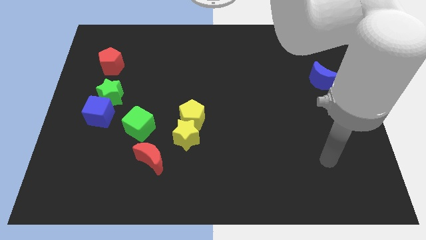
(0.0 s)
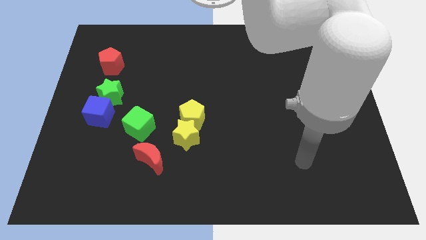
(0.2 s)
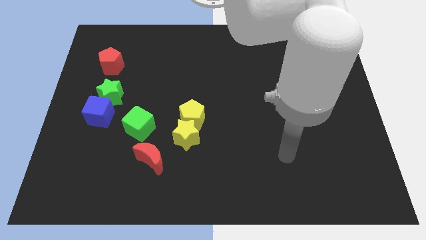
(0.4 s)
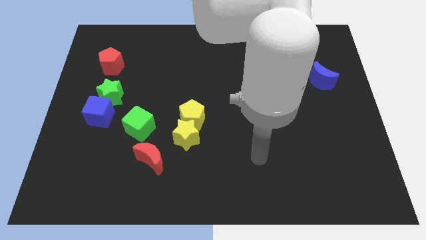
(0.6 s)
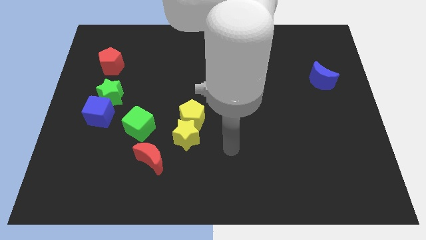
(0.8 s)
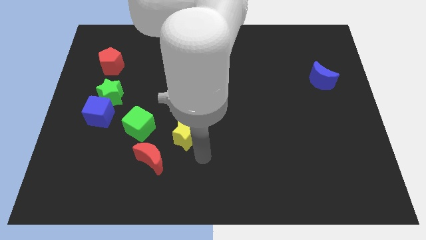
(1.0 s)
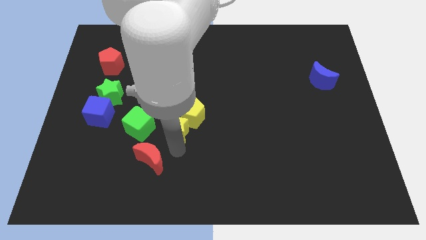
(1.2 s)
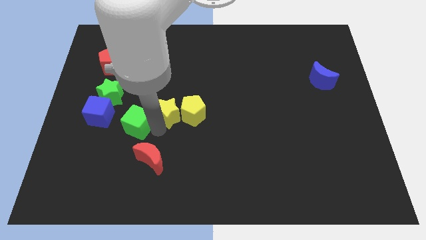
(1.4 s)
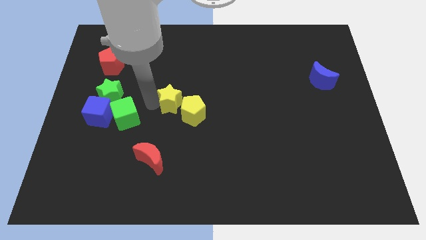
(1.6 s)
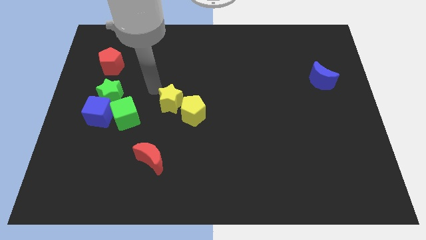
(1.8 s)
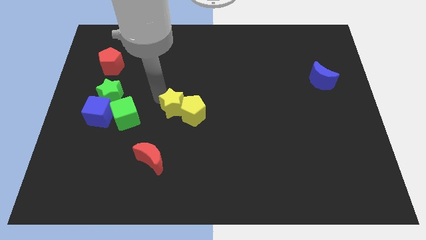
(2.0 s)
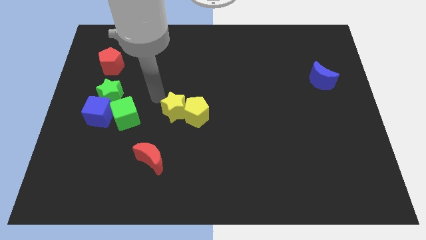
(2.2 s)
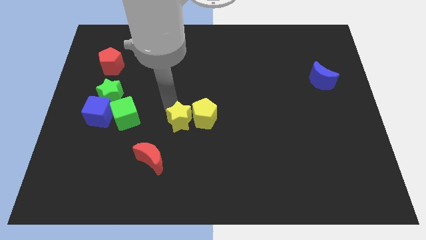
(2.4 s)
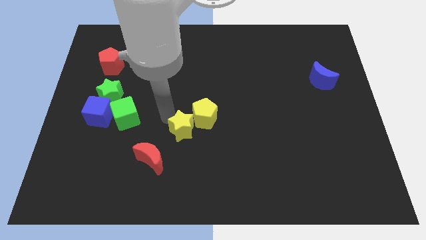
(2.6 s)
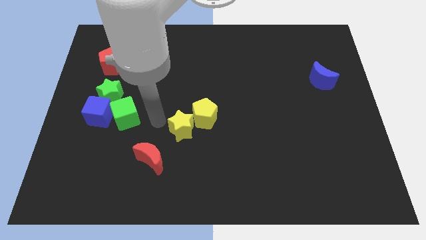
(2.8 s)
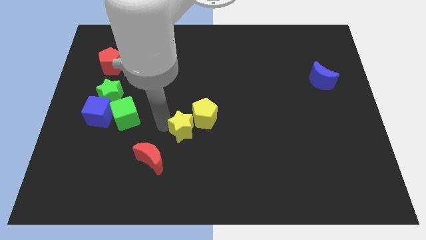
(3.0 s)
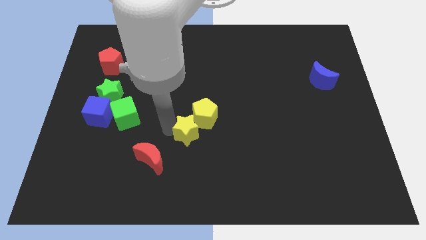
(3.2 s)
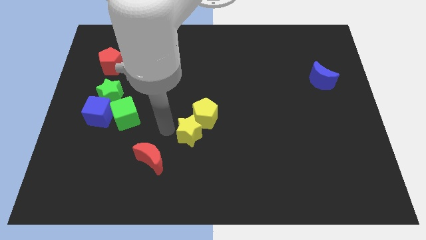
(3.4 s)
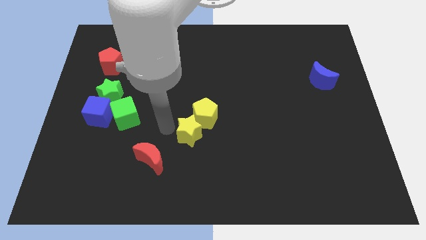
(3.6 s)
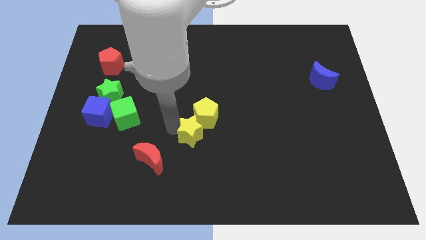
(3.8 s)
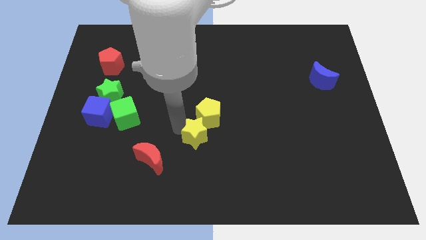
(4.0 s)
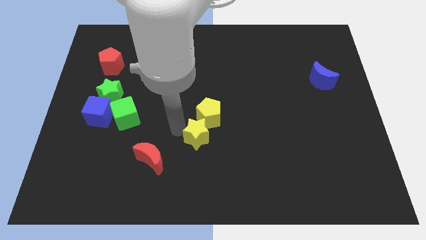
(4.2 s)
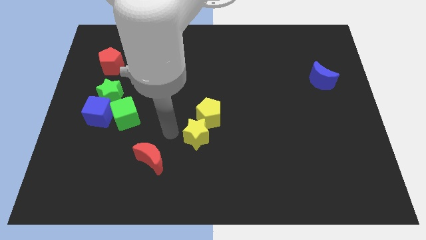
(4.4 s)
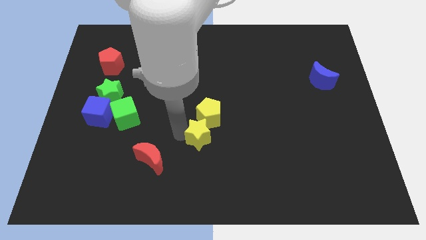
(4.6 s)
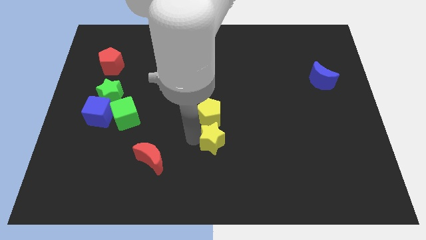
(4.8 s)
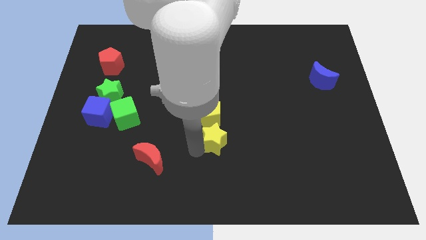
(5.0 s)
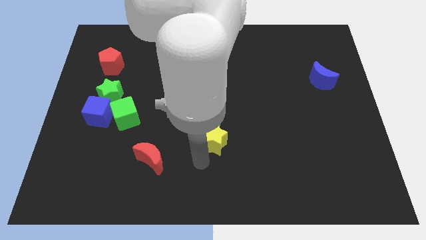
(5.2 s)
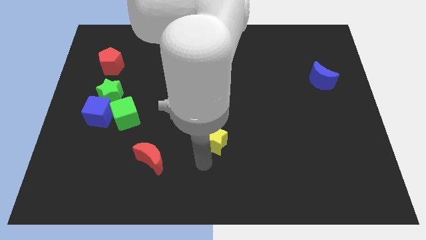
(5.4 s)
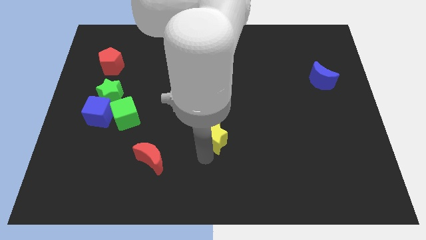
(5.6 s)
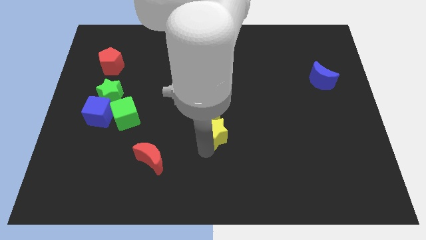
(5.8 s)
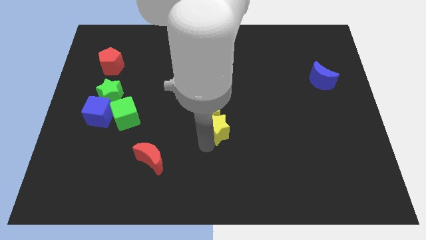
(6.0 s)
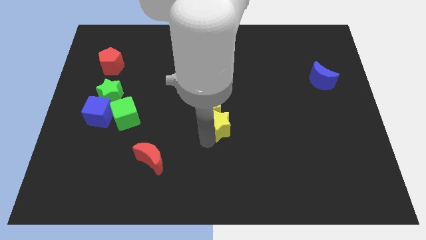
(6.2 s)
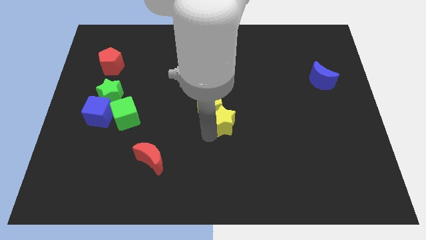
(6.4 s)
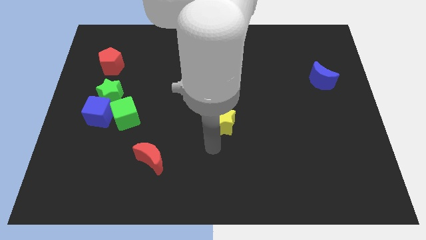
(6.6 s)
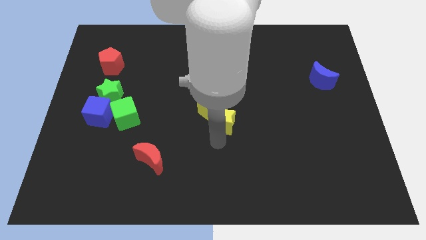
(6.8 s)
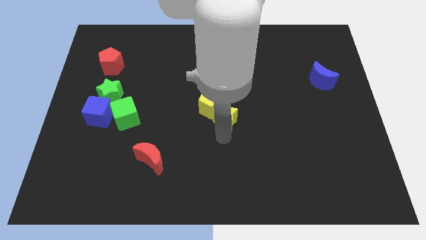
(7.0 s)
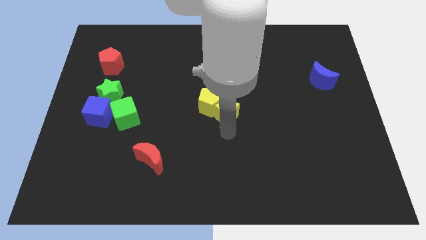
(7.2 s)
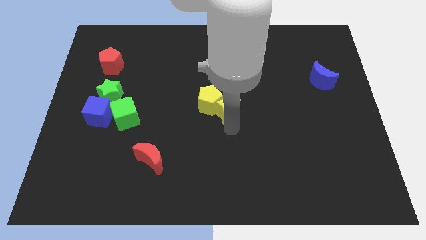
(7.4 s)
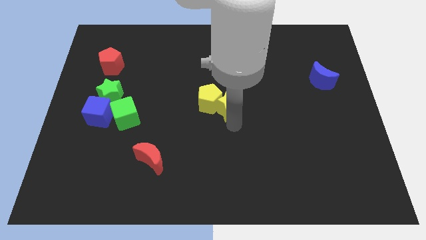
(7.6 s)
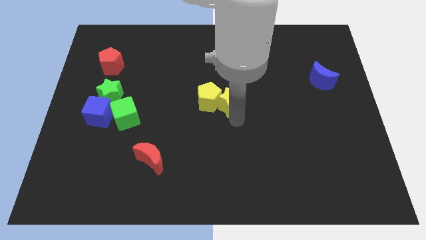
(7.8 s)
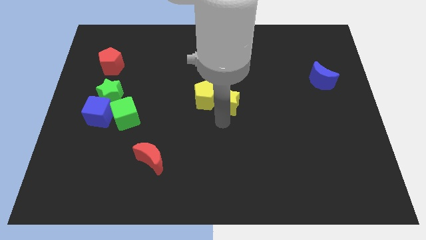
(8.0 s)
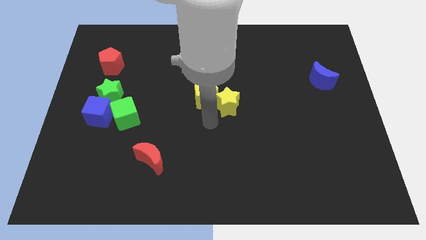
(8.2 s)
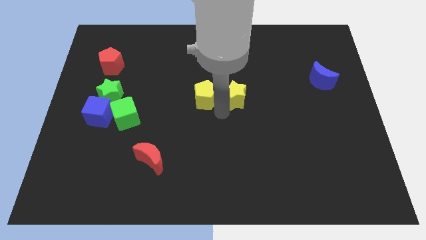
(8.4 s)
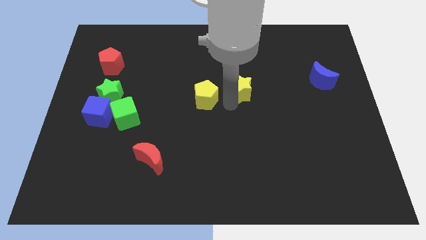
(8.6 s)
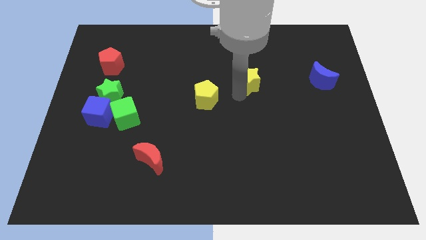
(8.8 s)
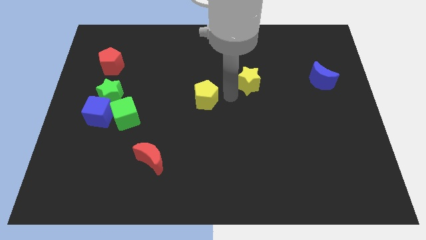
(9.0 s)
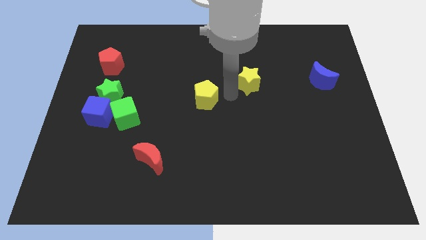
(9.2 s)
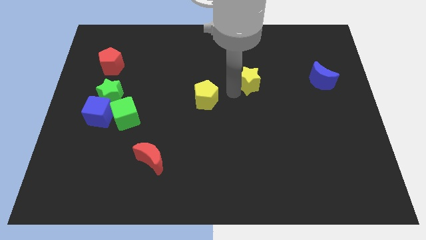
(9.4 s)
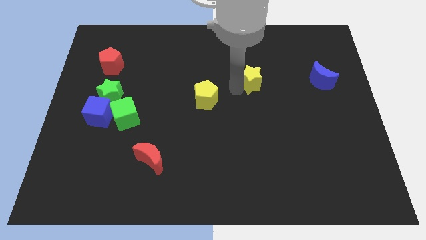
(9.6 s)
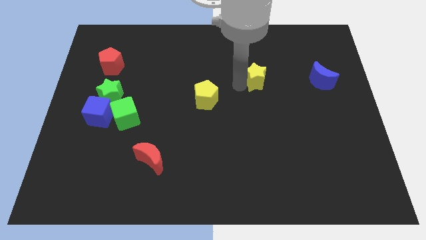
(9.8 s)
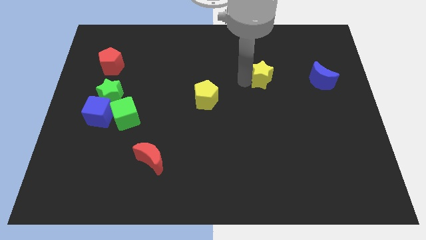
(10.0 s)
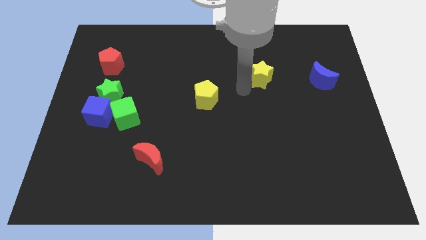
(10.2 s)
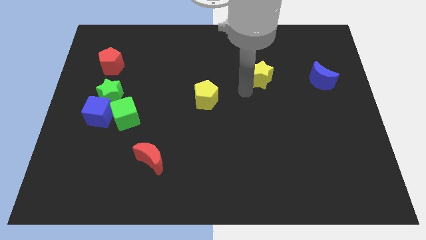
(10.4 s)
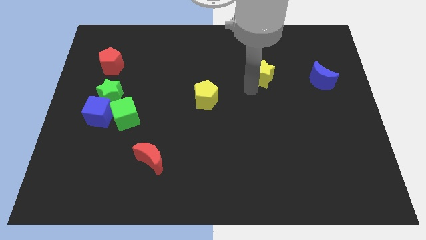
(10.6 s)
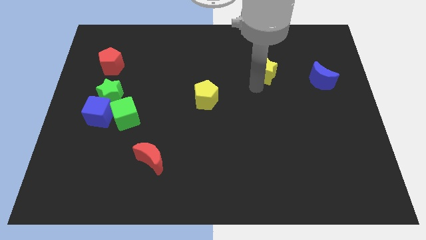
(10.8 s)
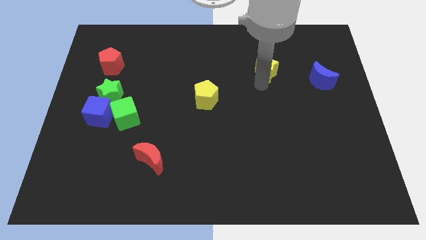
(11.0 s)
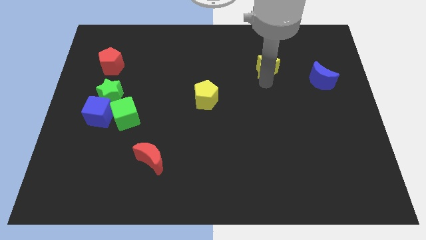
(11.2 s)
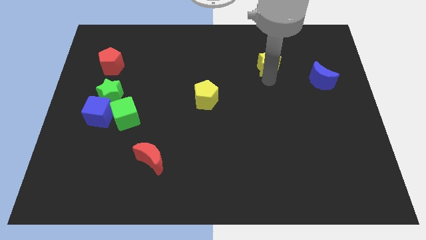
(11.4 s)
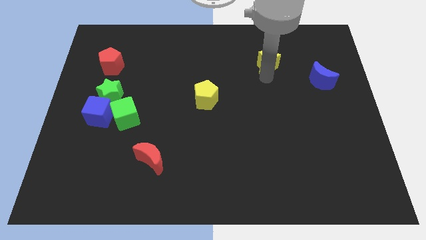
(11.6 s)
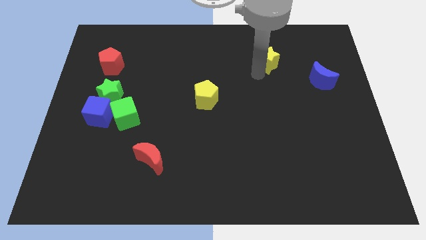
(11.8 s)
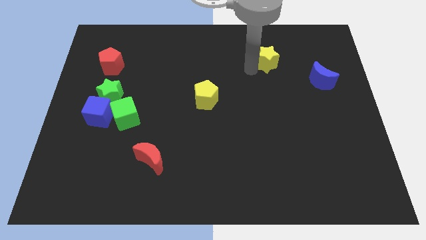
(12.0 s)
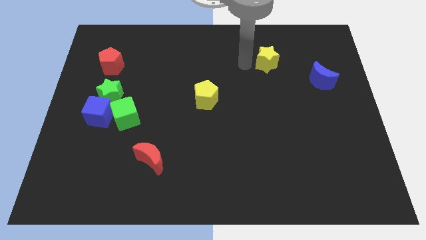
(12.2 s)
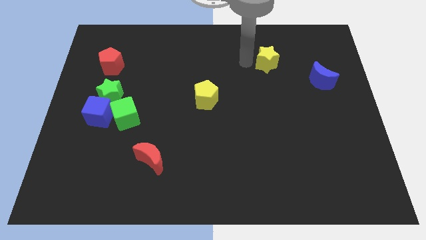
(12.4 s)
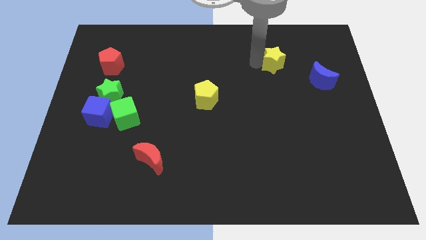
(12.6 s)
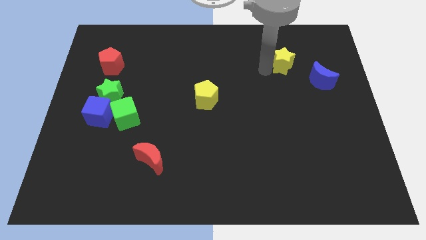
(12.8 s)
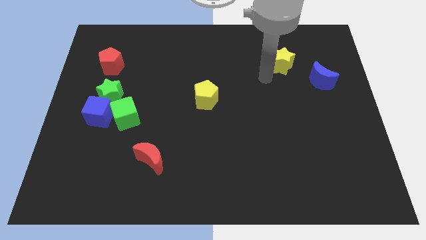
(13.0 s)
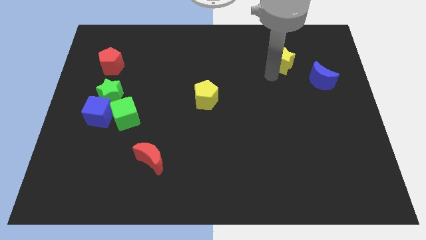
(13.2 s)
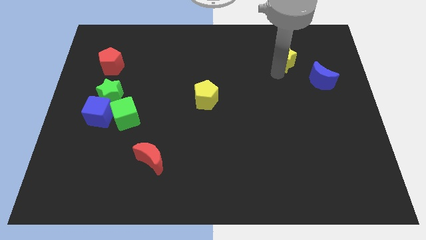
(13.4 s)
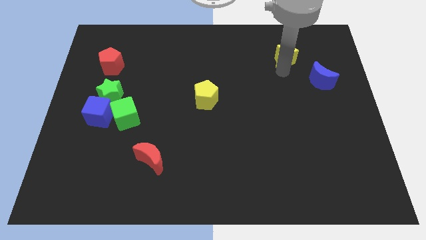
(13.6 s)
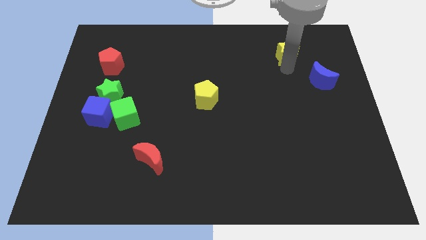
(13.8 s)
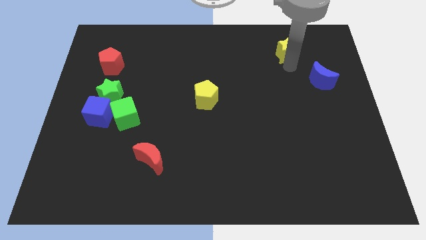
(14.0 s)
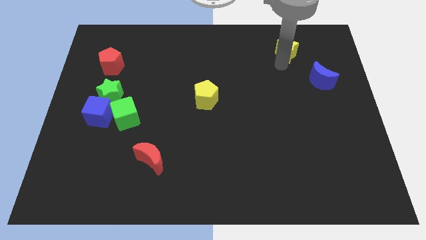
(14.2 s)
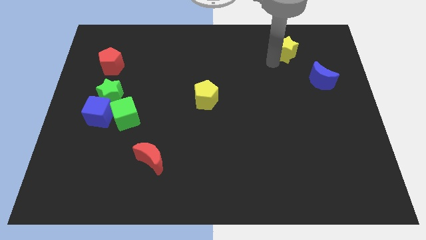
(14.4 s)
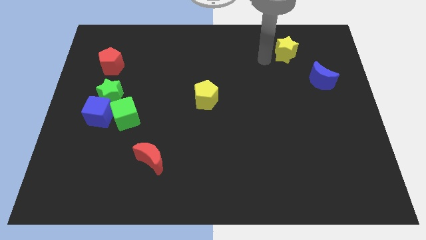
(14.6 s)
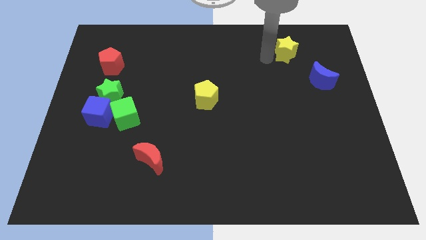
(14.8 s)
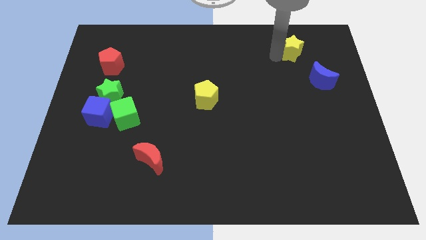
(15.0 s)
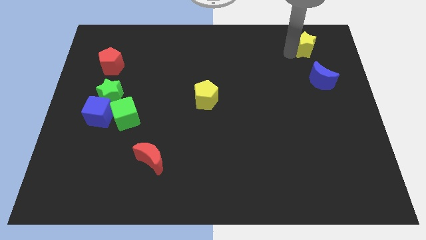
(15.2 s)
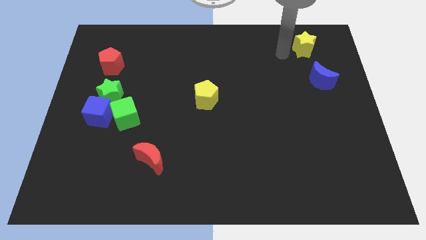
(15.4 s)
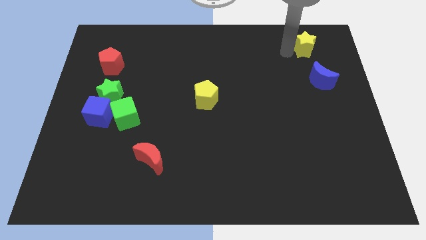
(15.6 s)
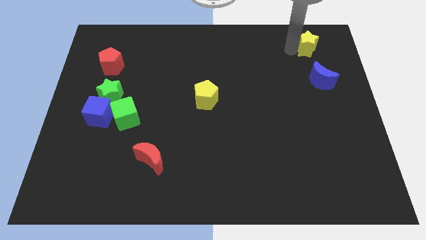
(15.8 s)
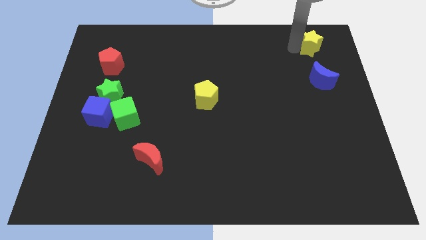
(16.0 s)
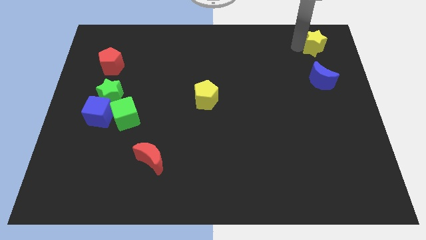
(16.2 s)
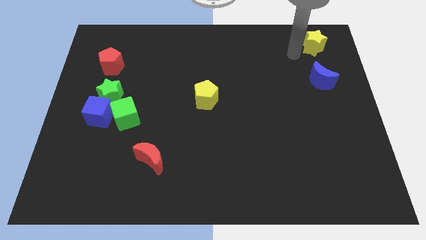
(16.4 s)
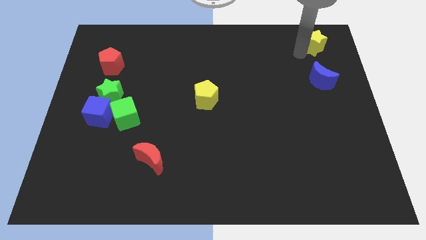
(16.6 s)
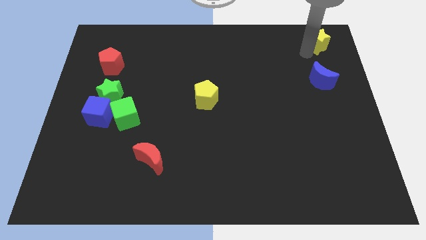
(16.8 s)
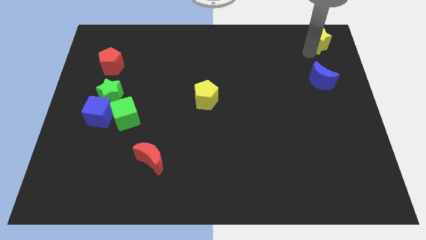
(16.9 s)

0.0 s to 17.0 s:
push the yellow star to the top right corner
